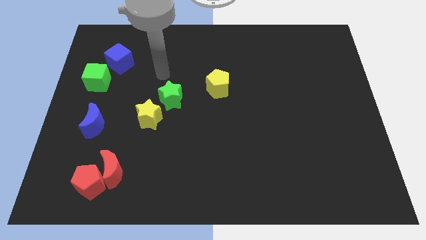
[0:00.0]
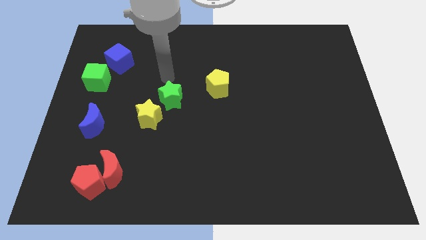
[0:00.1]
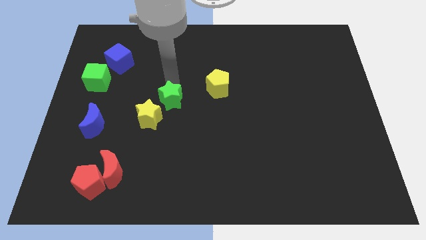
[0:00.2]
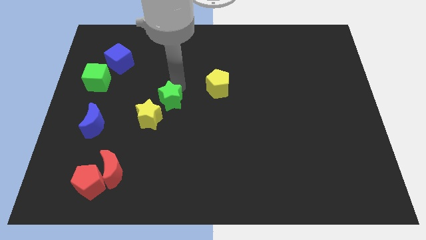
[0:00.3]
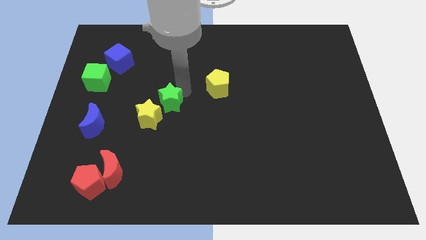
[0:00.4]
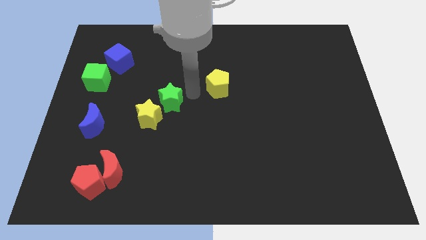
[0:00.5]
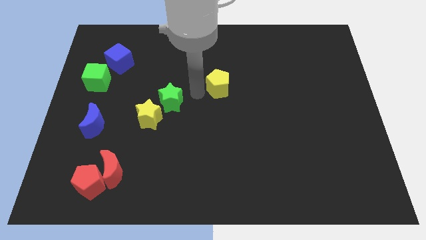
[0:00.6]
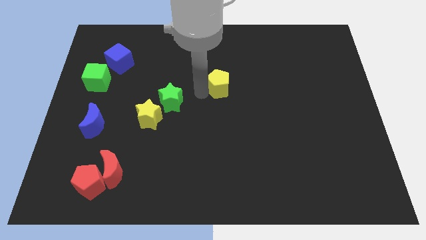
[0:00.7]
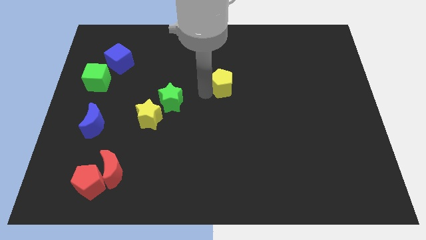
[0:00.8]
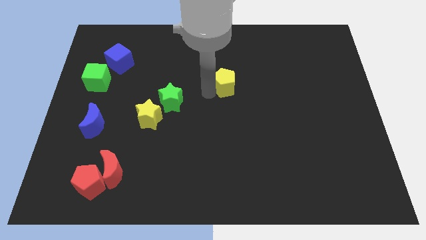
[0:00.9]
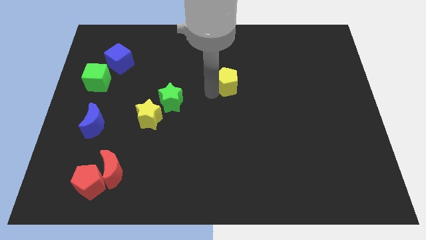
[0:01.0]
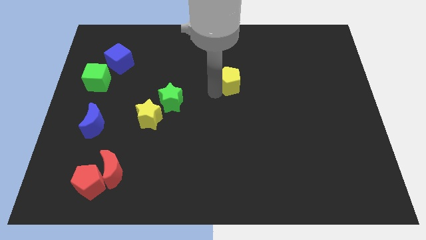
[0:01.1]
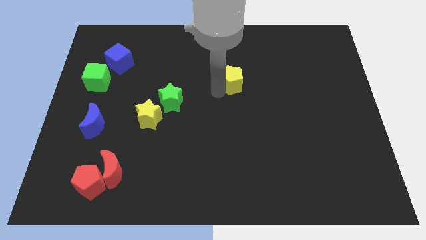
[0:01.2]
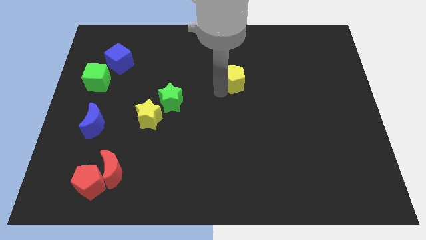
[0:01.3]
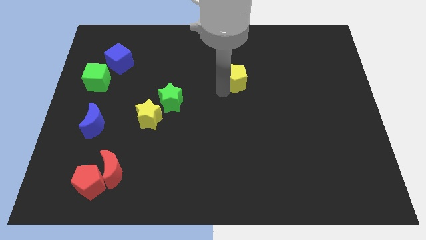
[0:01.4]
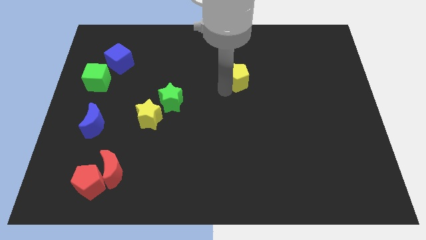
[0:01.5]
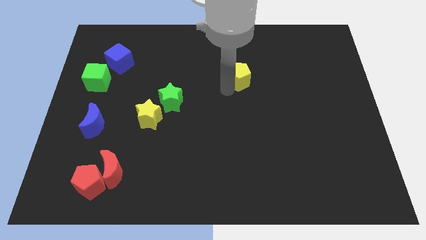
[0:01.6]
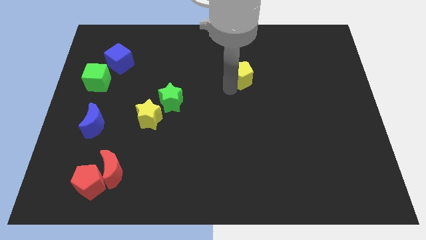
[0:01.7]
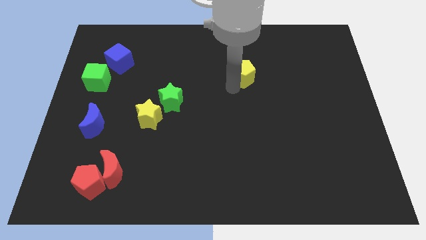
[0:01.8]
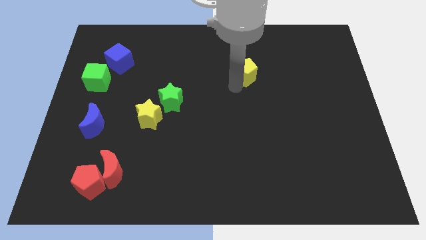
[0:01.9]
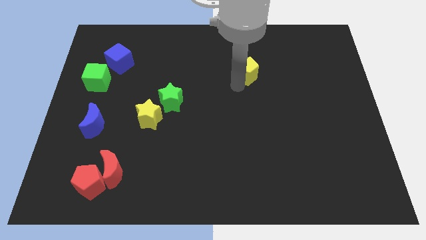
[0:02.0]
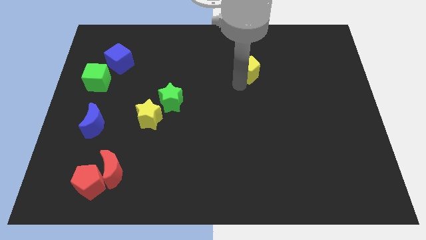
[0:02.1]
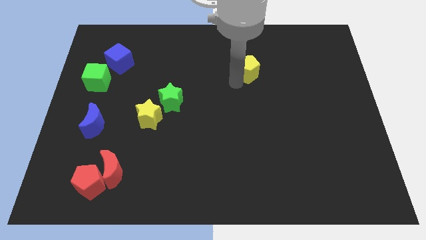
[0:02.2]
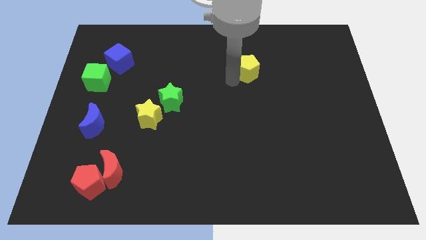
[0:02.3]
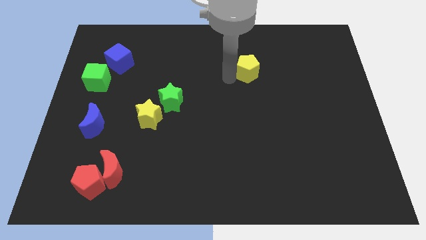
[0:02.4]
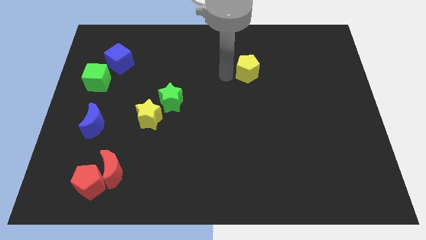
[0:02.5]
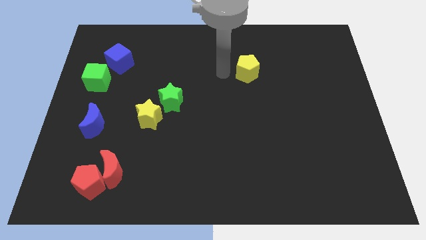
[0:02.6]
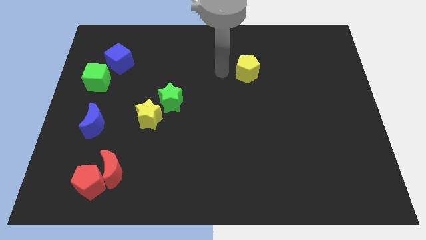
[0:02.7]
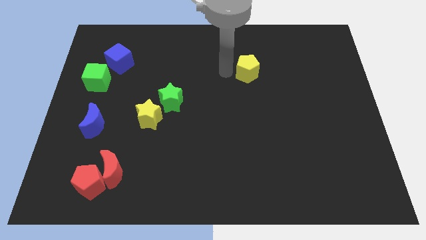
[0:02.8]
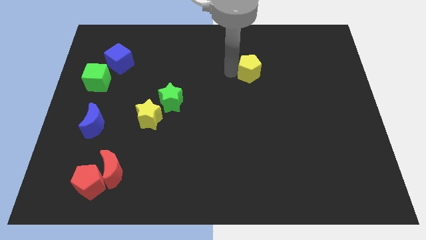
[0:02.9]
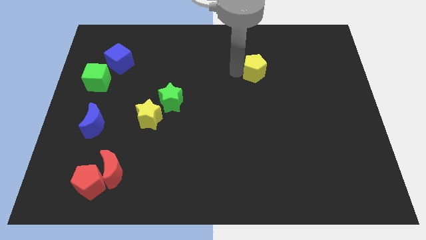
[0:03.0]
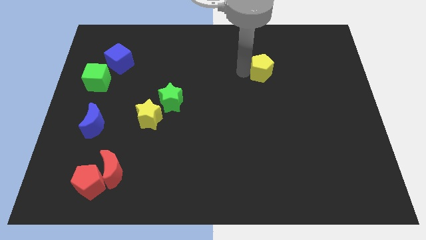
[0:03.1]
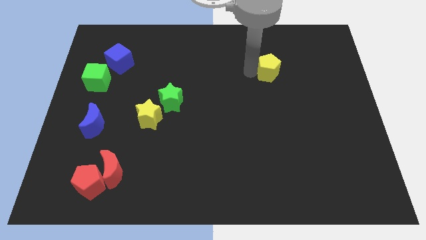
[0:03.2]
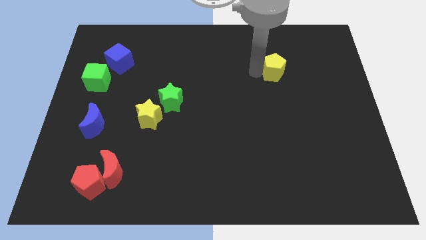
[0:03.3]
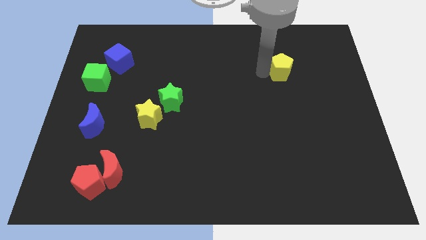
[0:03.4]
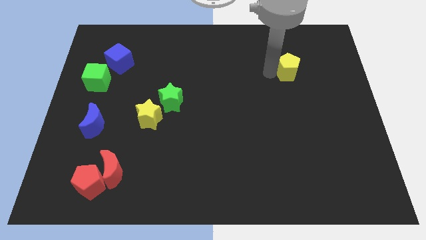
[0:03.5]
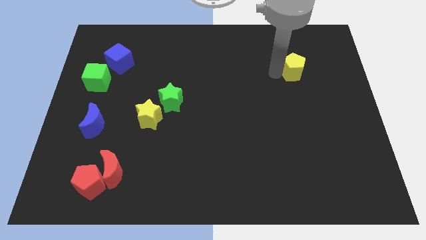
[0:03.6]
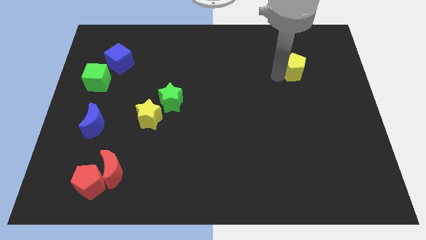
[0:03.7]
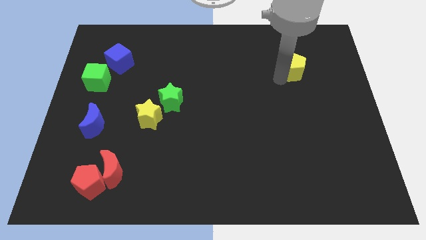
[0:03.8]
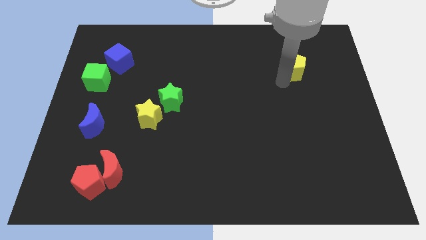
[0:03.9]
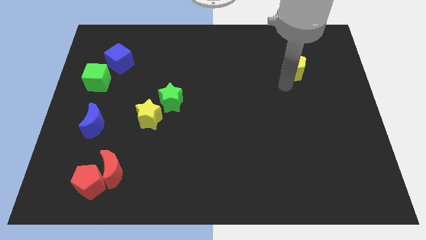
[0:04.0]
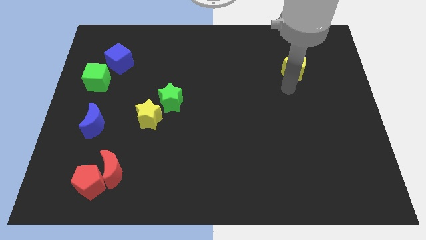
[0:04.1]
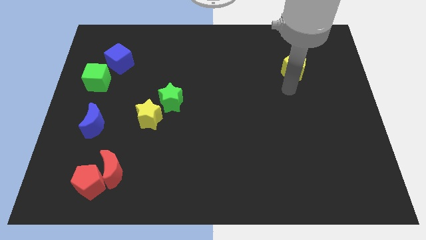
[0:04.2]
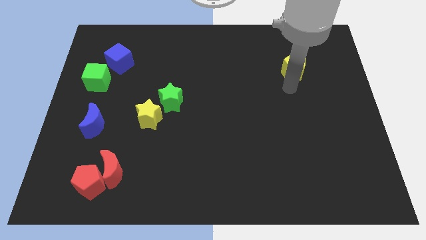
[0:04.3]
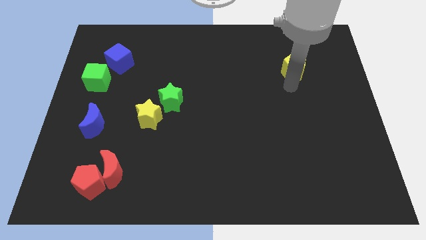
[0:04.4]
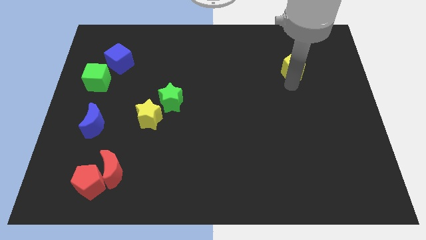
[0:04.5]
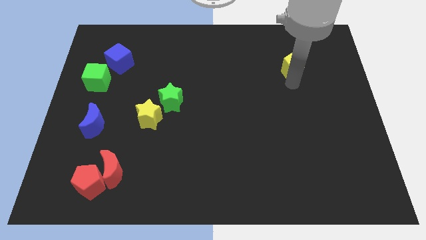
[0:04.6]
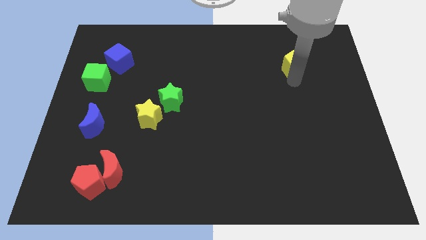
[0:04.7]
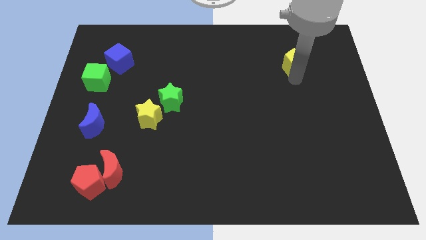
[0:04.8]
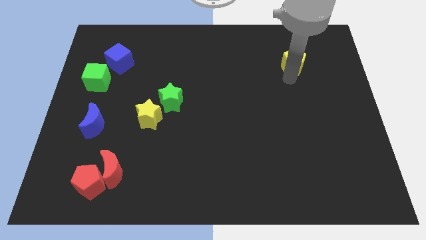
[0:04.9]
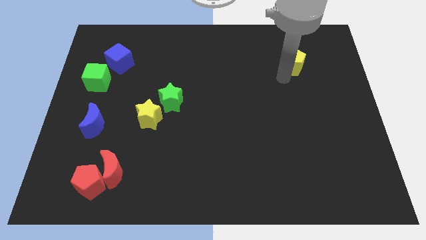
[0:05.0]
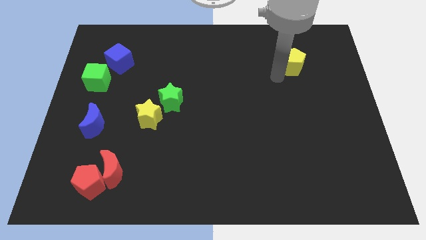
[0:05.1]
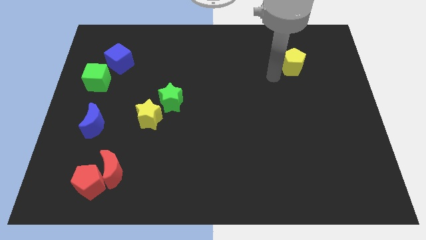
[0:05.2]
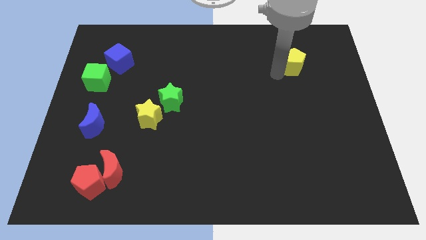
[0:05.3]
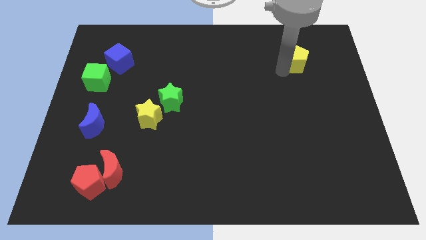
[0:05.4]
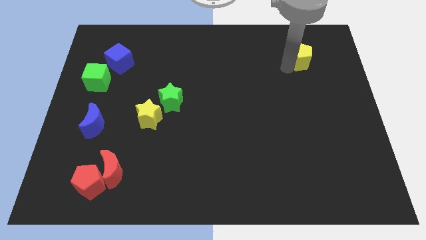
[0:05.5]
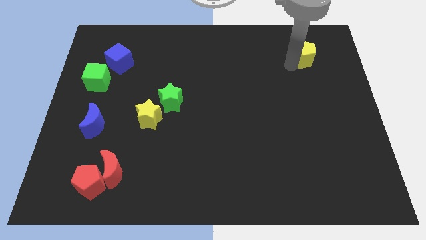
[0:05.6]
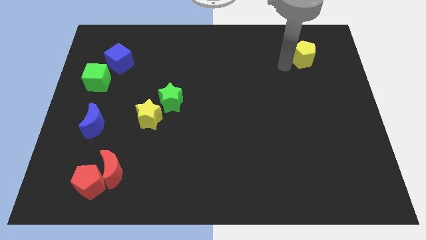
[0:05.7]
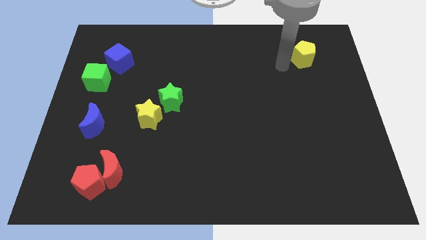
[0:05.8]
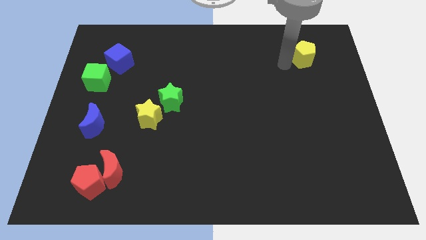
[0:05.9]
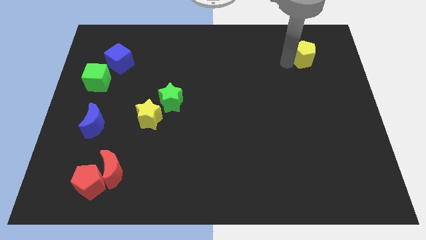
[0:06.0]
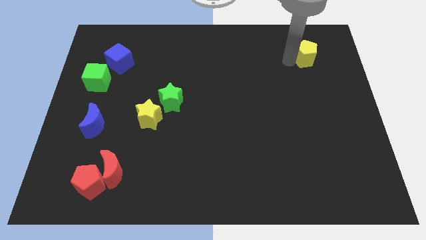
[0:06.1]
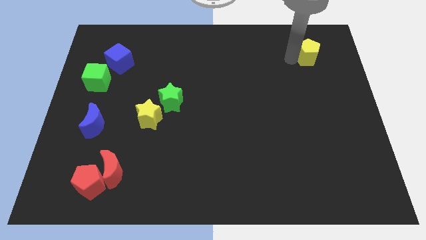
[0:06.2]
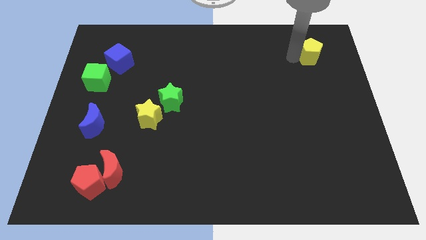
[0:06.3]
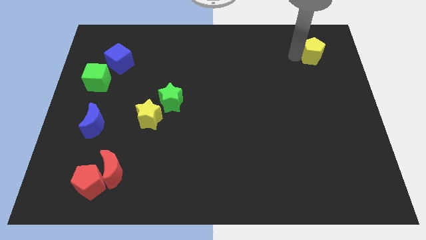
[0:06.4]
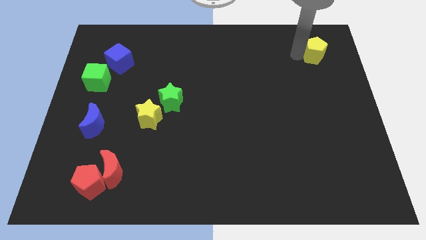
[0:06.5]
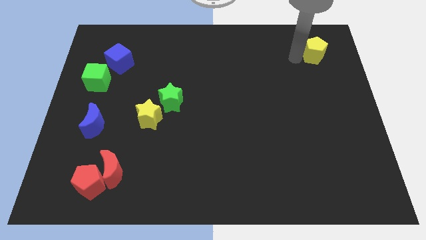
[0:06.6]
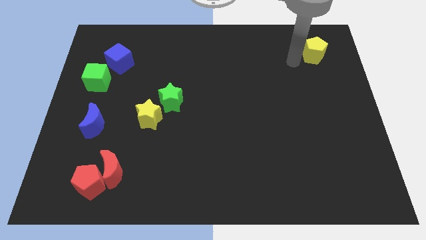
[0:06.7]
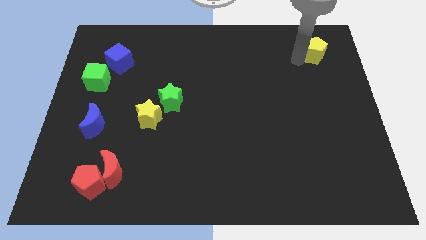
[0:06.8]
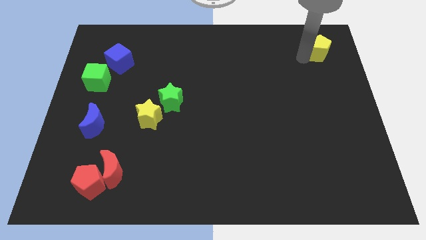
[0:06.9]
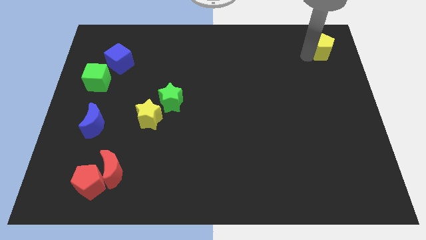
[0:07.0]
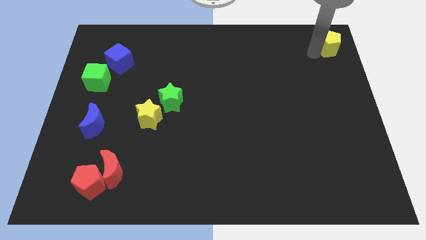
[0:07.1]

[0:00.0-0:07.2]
put the yellow pentagon to the top right of the board
